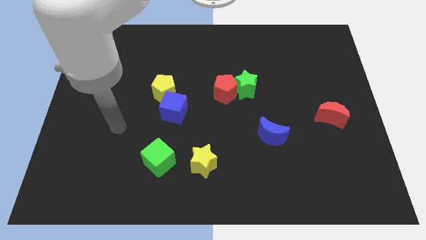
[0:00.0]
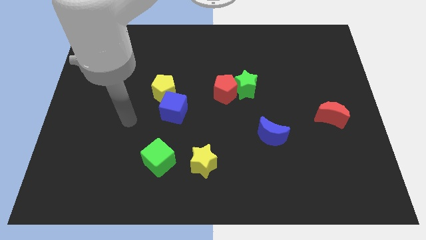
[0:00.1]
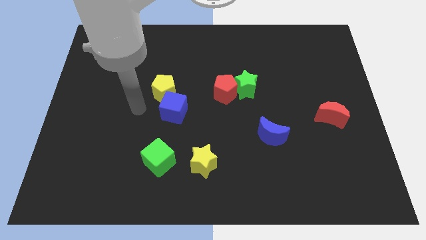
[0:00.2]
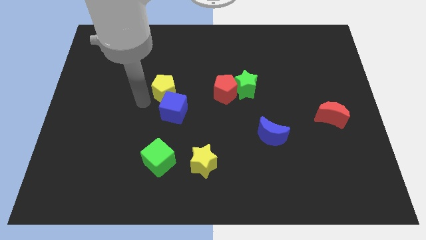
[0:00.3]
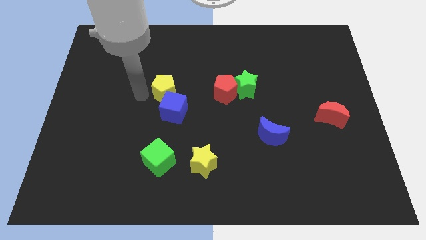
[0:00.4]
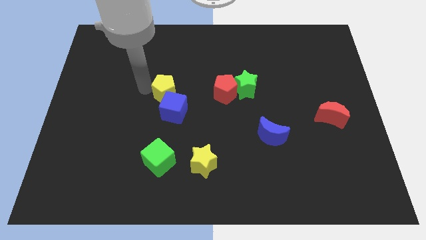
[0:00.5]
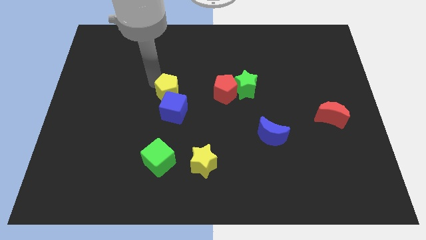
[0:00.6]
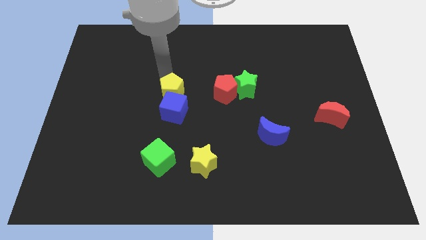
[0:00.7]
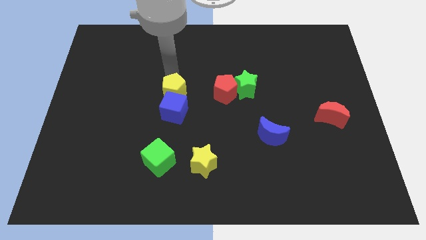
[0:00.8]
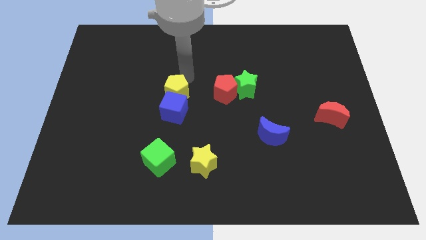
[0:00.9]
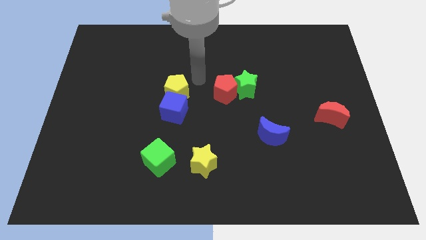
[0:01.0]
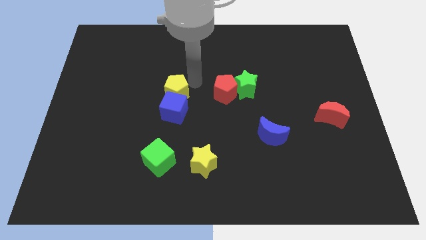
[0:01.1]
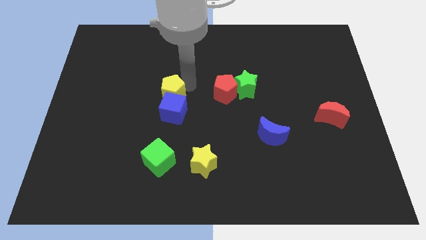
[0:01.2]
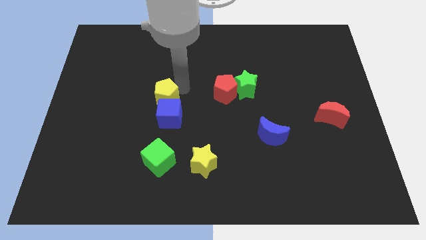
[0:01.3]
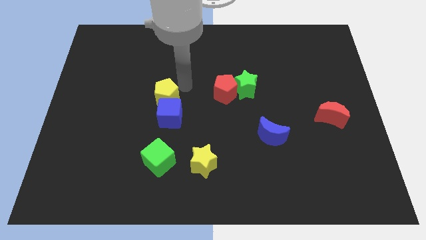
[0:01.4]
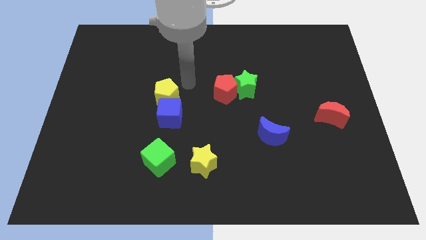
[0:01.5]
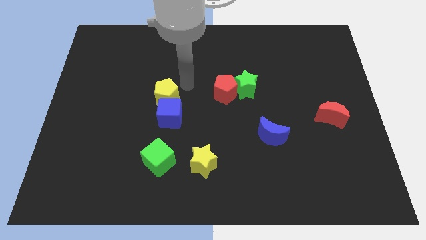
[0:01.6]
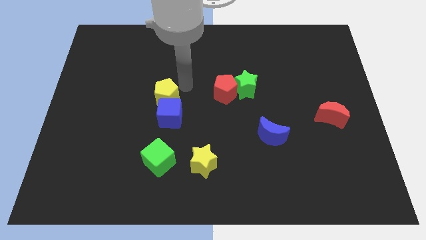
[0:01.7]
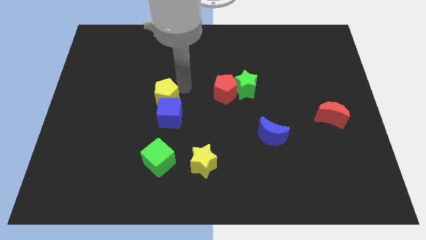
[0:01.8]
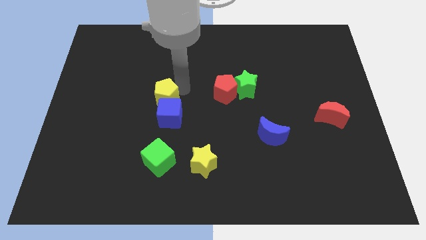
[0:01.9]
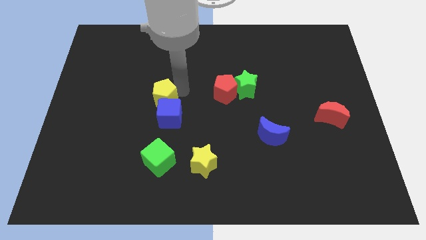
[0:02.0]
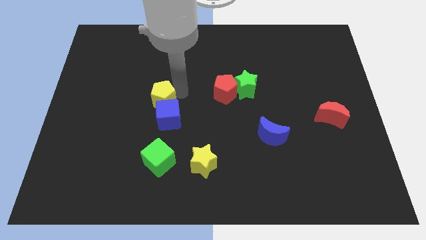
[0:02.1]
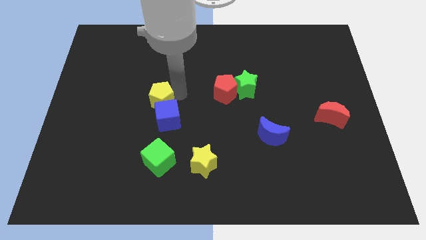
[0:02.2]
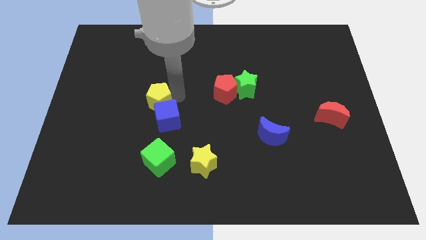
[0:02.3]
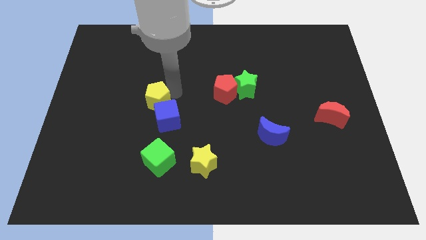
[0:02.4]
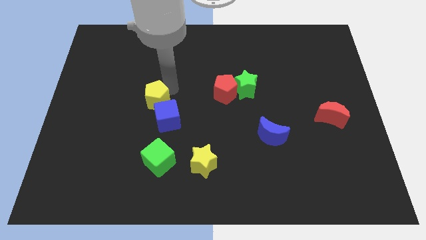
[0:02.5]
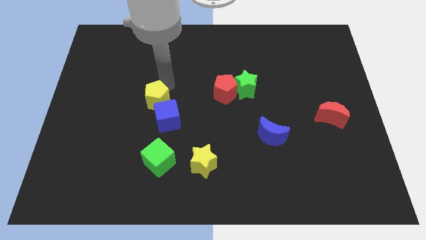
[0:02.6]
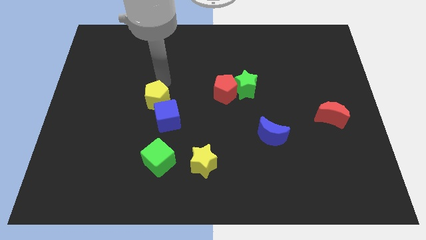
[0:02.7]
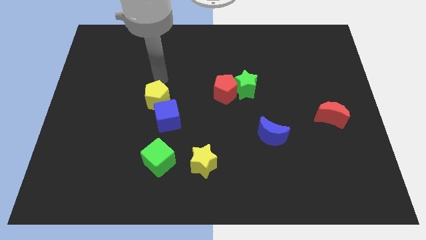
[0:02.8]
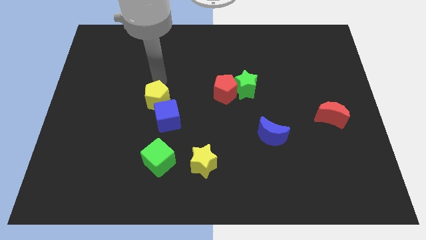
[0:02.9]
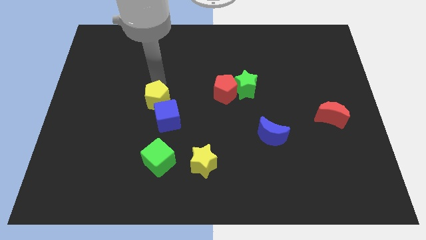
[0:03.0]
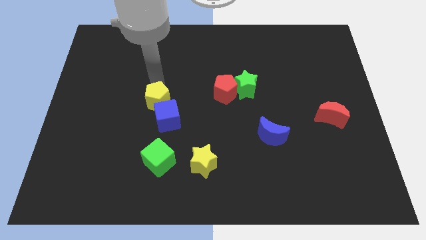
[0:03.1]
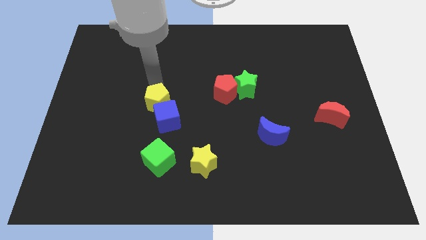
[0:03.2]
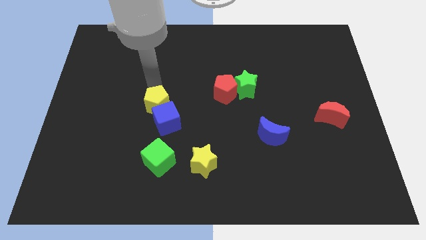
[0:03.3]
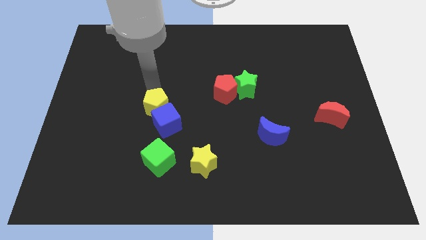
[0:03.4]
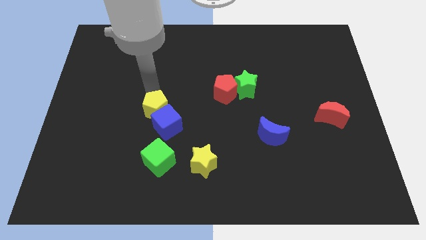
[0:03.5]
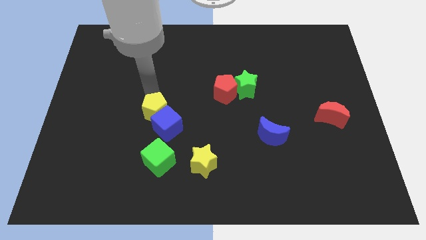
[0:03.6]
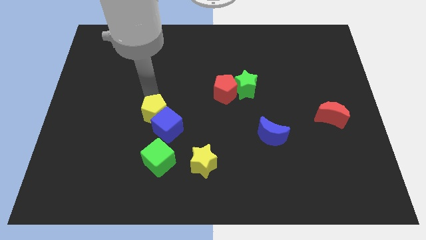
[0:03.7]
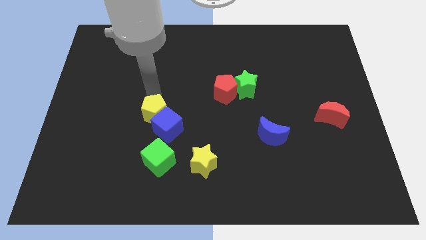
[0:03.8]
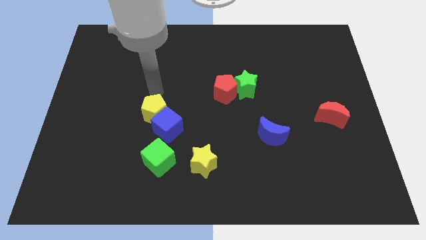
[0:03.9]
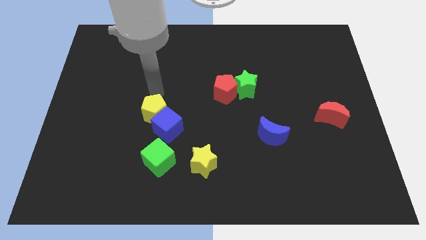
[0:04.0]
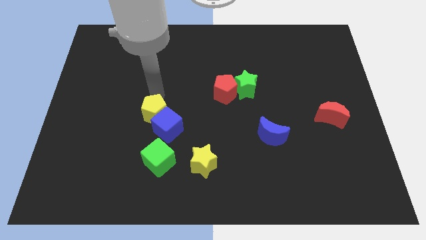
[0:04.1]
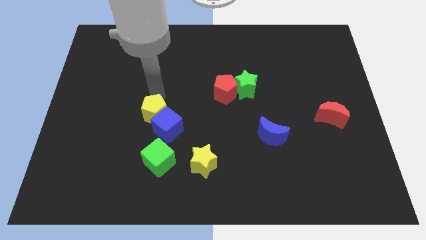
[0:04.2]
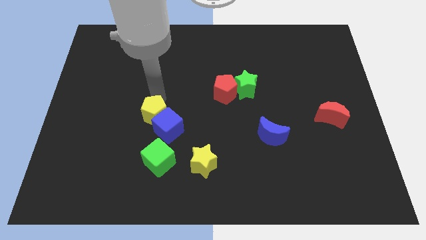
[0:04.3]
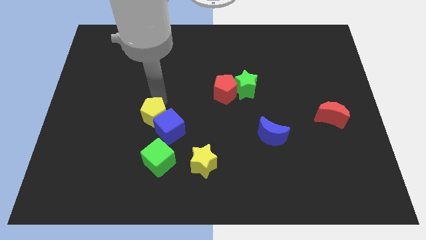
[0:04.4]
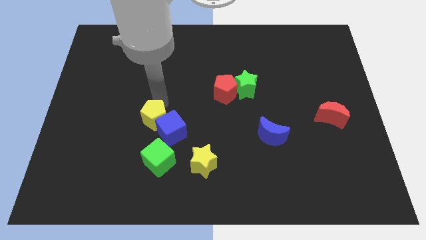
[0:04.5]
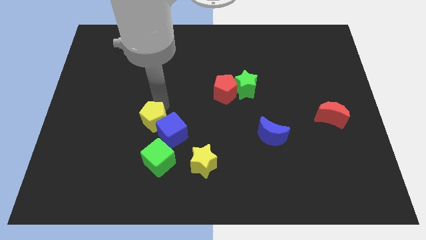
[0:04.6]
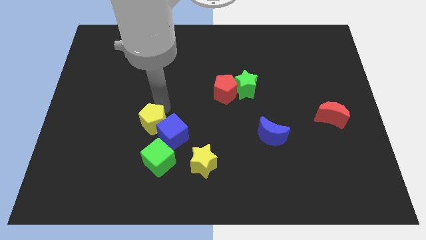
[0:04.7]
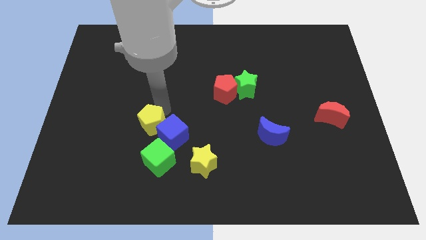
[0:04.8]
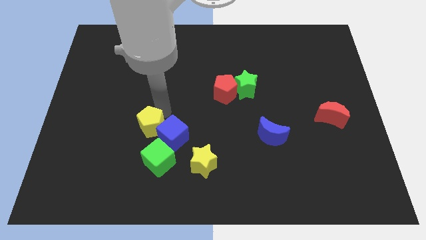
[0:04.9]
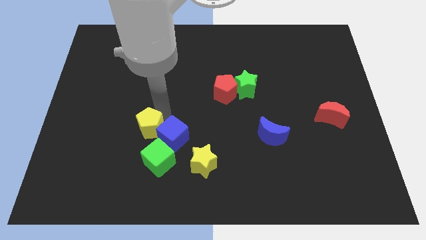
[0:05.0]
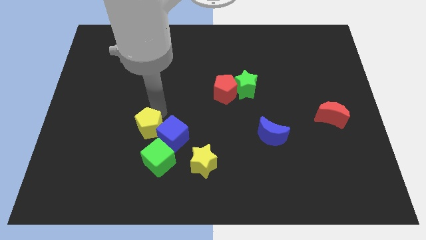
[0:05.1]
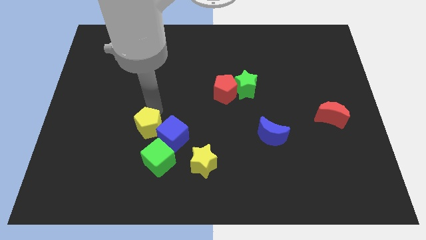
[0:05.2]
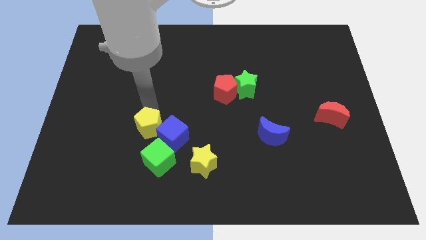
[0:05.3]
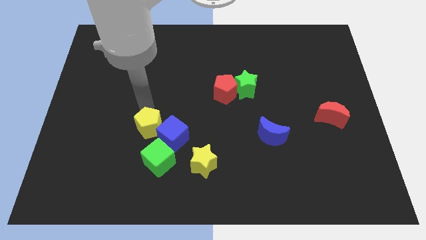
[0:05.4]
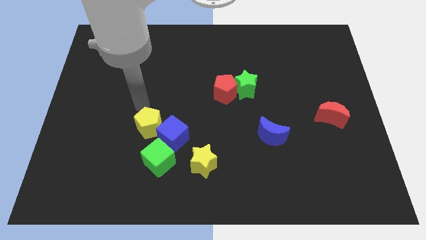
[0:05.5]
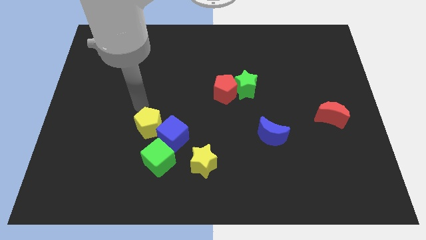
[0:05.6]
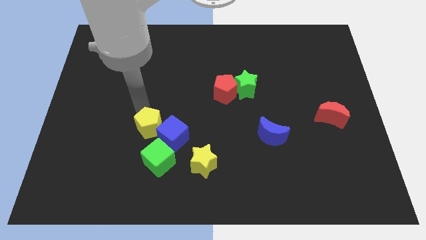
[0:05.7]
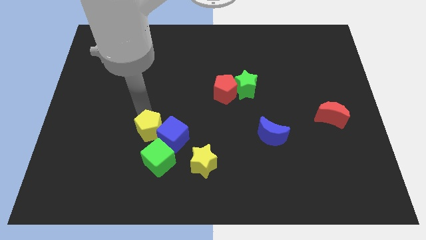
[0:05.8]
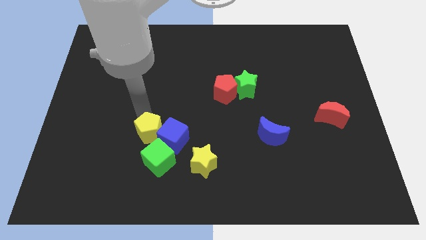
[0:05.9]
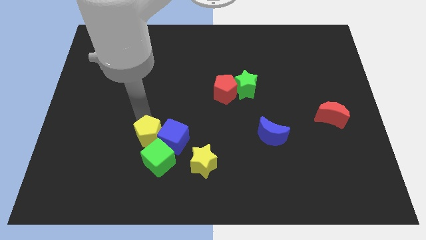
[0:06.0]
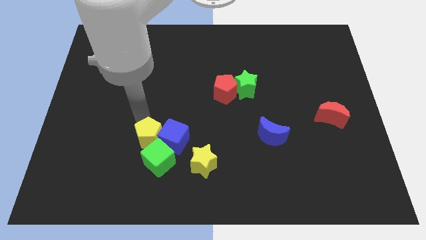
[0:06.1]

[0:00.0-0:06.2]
move the yellow pentagon towards the green cube

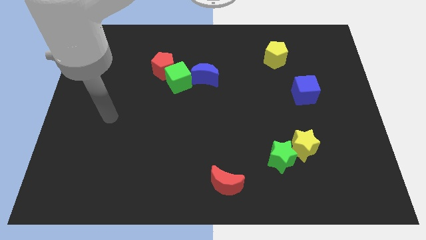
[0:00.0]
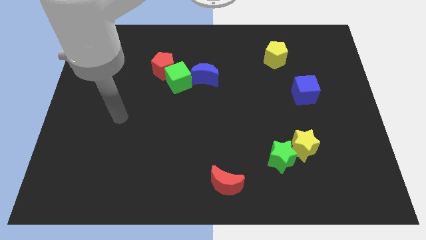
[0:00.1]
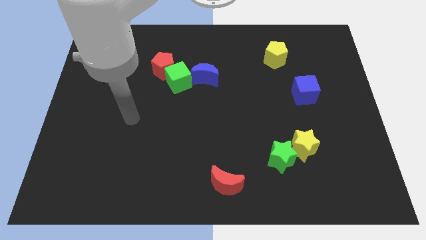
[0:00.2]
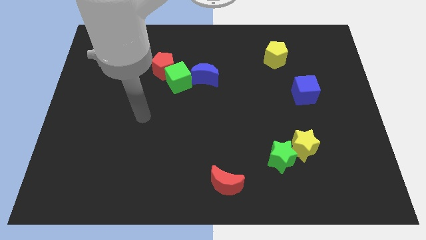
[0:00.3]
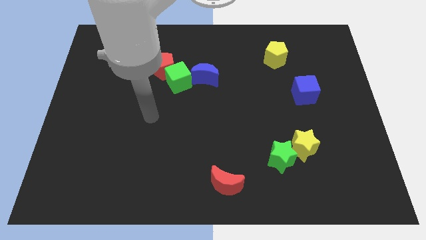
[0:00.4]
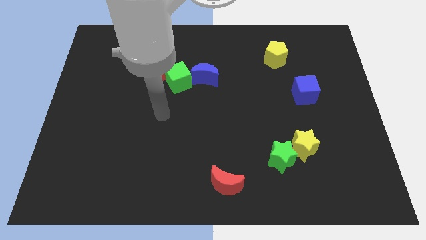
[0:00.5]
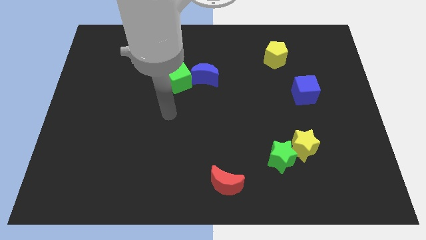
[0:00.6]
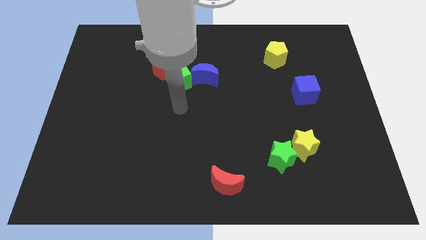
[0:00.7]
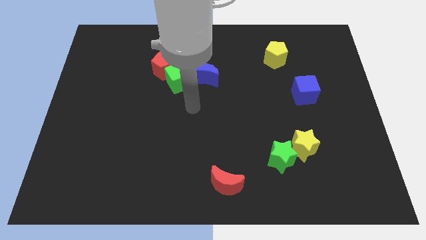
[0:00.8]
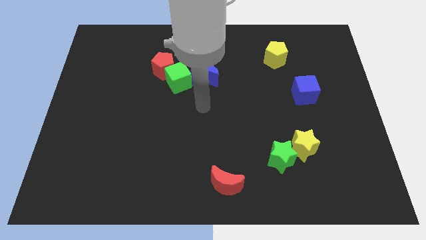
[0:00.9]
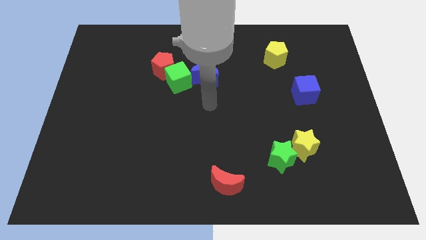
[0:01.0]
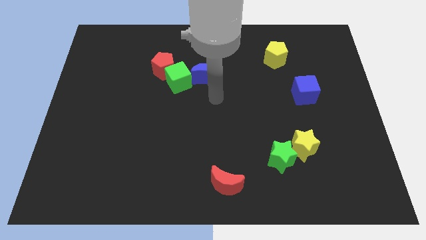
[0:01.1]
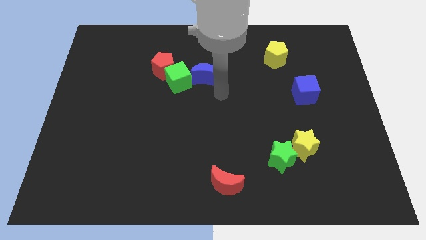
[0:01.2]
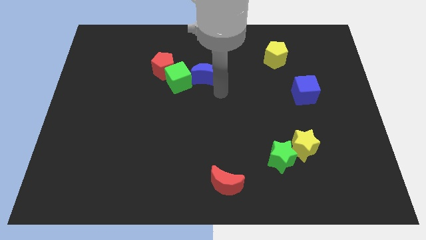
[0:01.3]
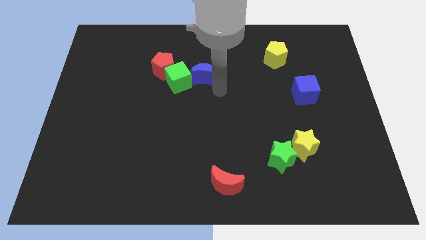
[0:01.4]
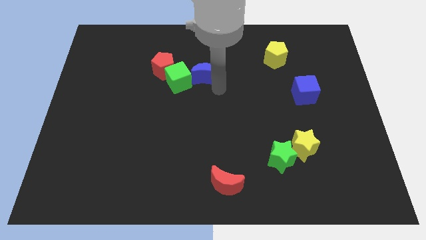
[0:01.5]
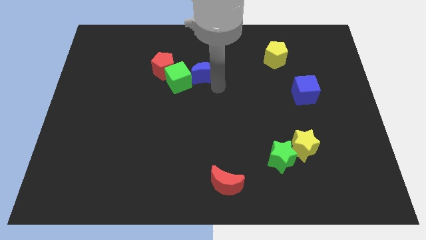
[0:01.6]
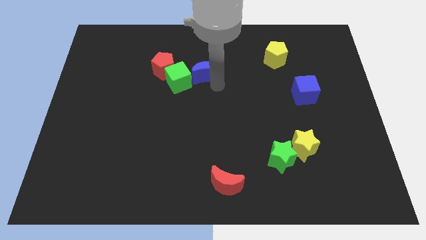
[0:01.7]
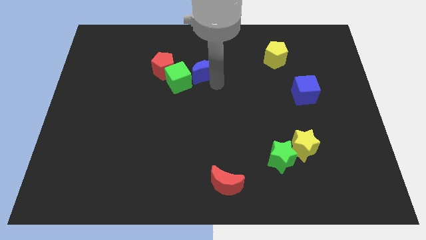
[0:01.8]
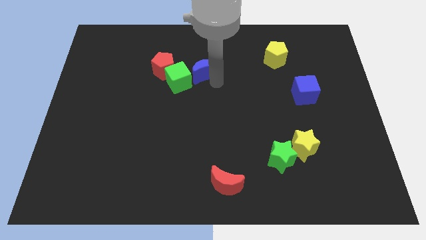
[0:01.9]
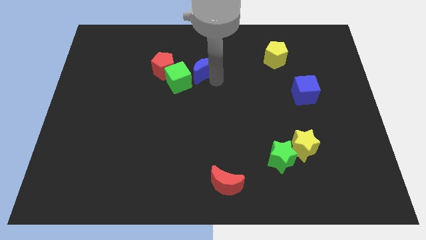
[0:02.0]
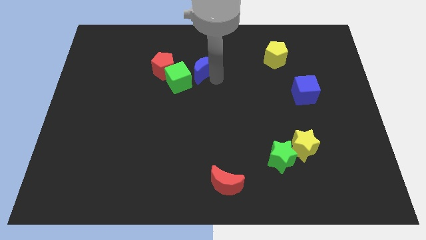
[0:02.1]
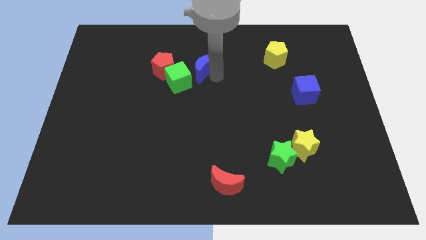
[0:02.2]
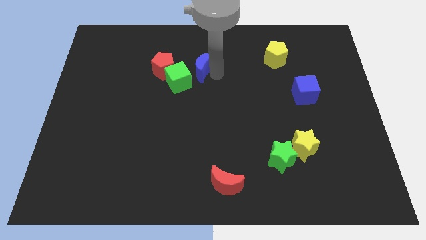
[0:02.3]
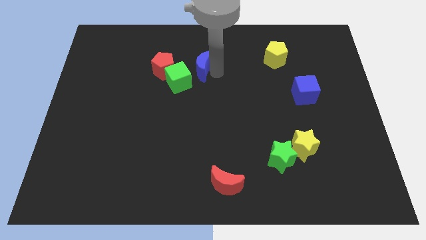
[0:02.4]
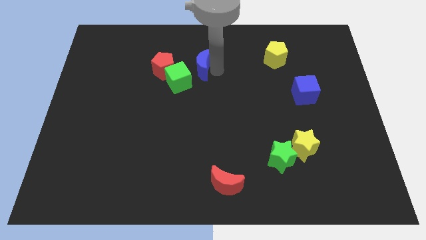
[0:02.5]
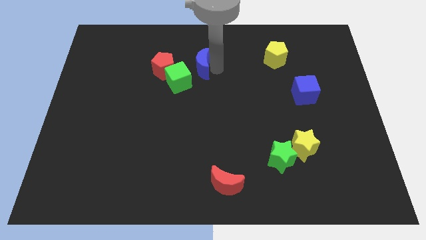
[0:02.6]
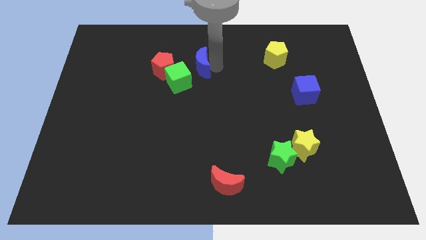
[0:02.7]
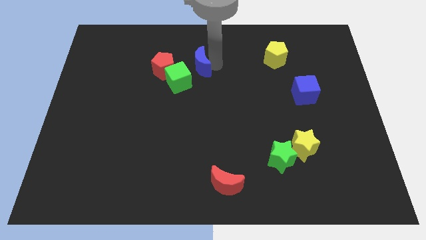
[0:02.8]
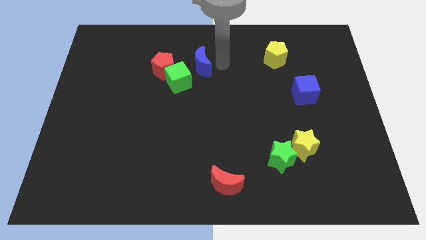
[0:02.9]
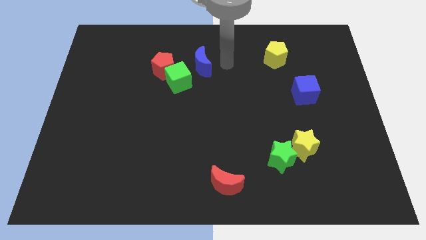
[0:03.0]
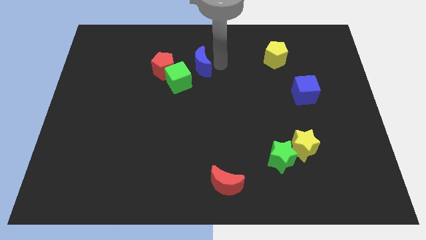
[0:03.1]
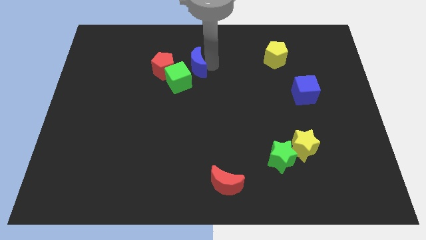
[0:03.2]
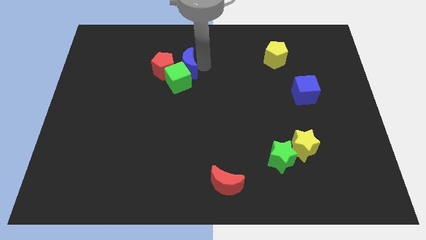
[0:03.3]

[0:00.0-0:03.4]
move the blue moon towards the red pentagon
